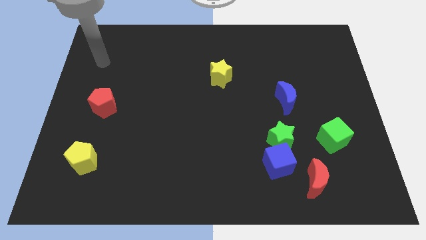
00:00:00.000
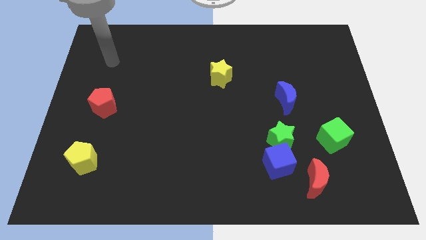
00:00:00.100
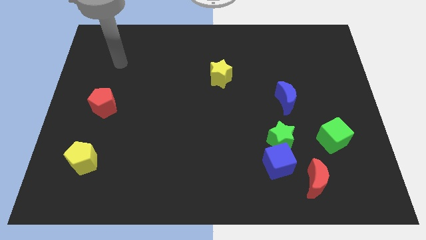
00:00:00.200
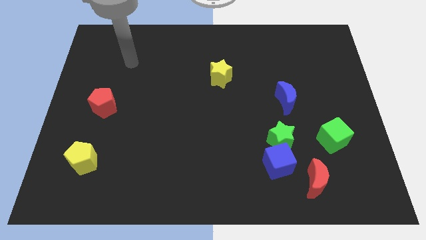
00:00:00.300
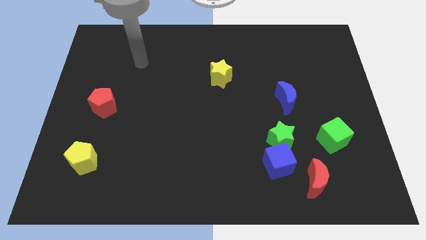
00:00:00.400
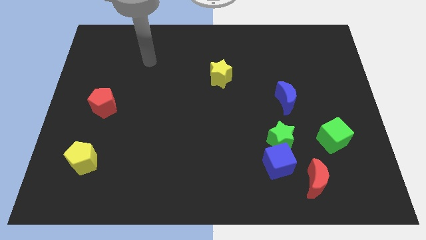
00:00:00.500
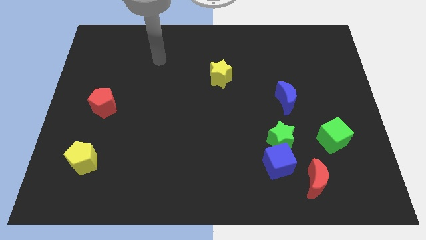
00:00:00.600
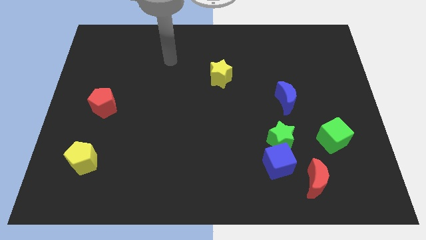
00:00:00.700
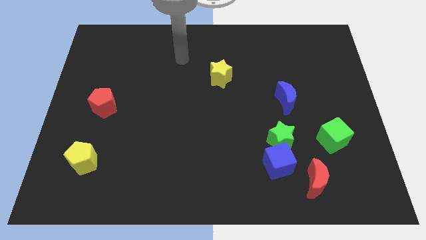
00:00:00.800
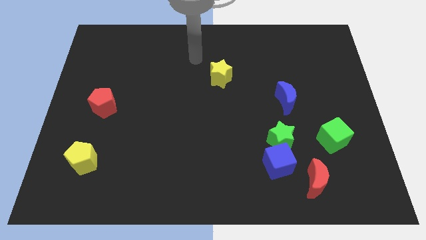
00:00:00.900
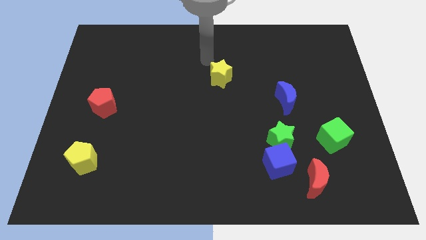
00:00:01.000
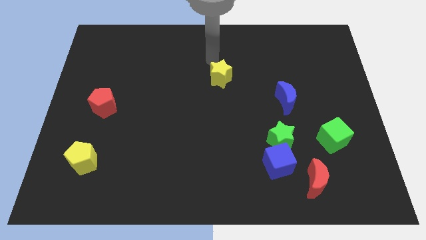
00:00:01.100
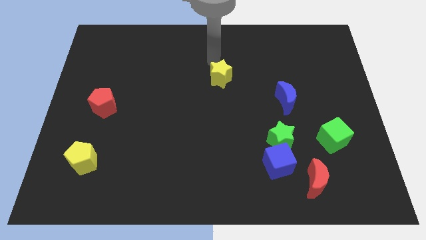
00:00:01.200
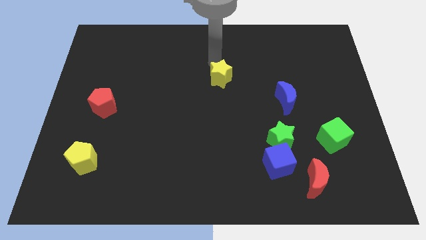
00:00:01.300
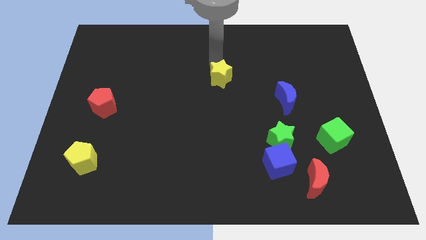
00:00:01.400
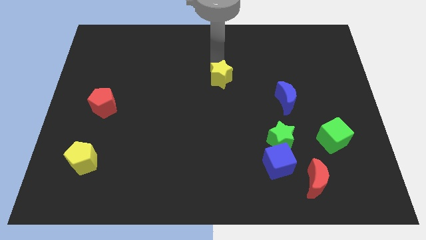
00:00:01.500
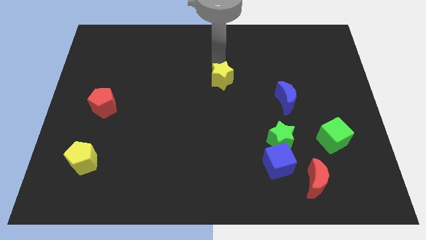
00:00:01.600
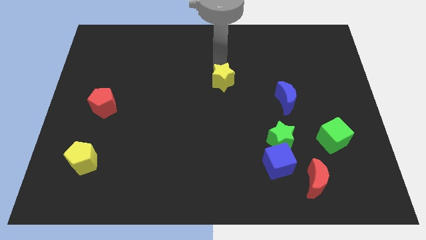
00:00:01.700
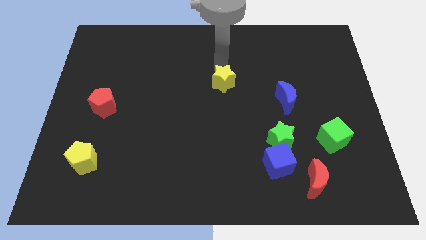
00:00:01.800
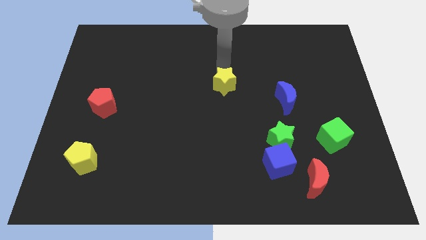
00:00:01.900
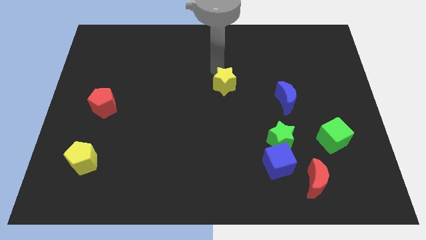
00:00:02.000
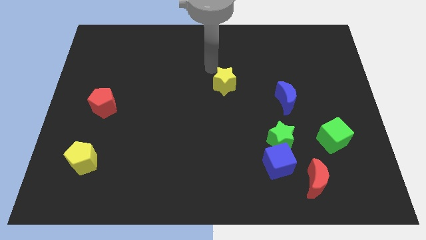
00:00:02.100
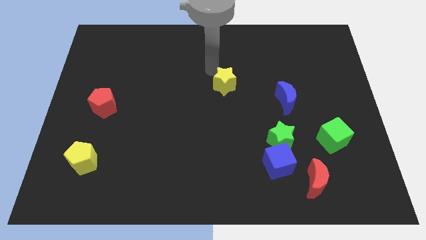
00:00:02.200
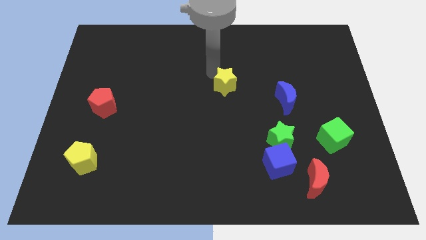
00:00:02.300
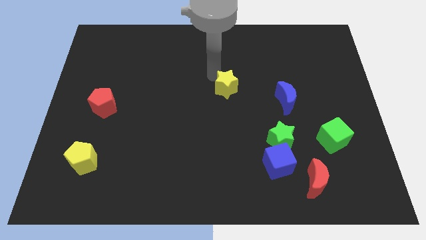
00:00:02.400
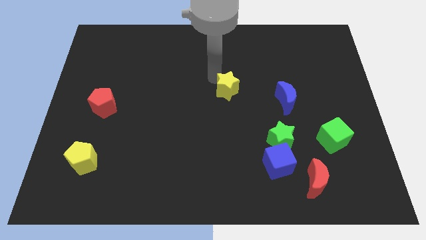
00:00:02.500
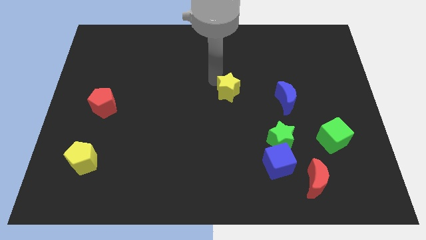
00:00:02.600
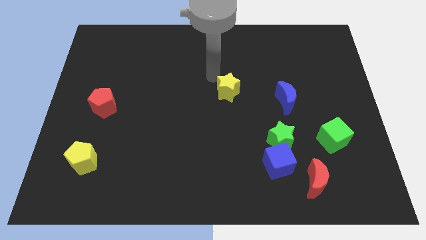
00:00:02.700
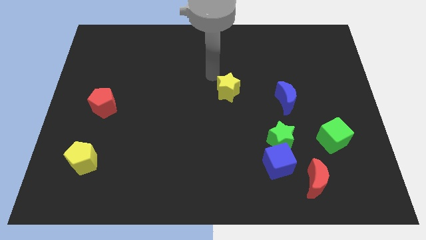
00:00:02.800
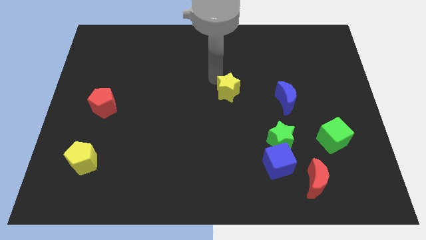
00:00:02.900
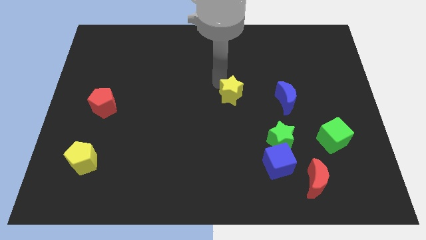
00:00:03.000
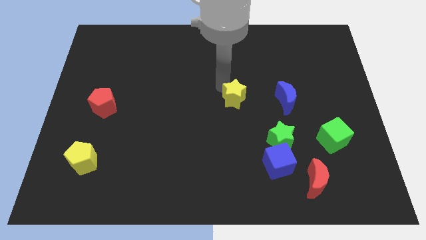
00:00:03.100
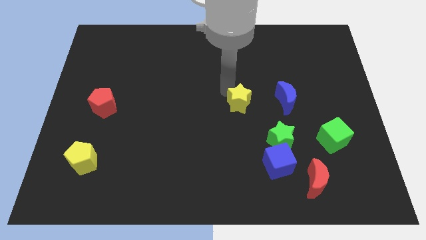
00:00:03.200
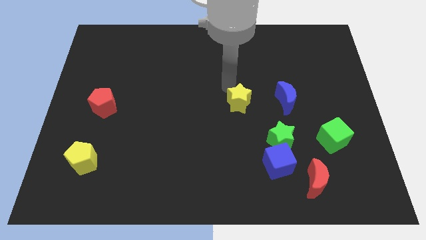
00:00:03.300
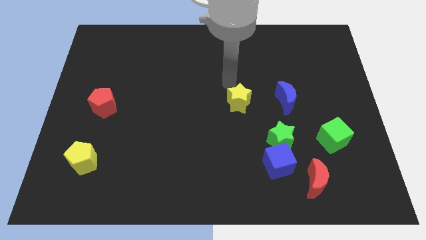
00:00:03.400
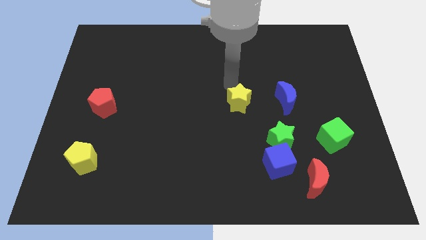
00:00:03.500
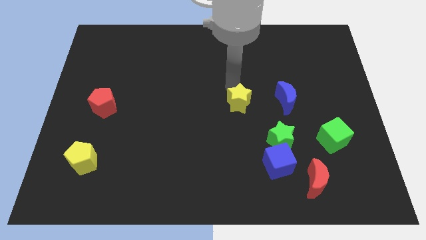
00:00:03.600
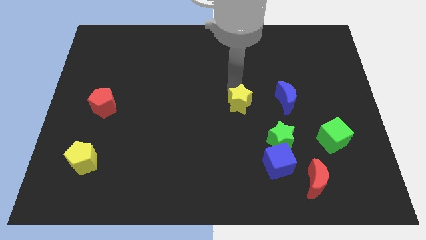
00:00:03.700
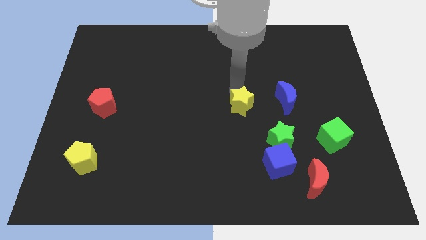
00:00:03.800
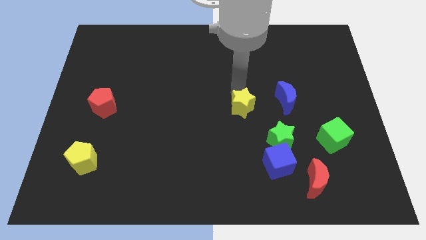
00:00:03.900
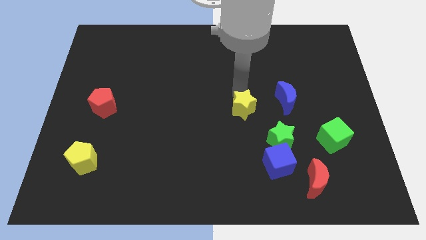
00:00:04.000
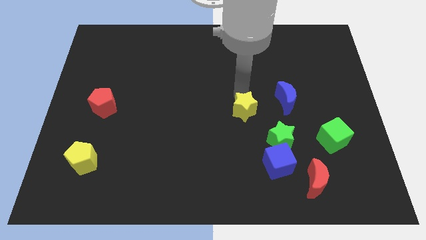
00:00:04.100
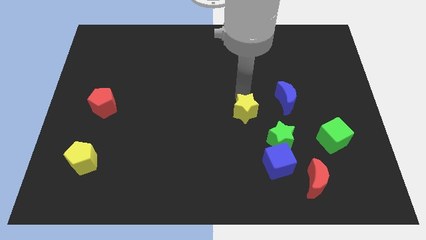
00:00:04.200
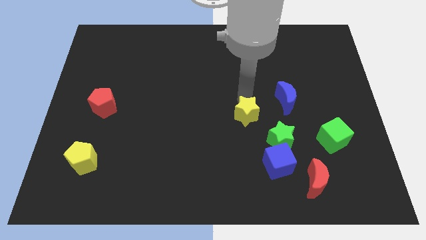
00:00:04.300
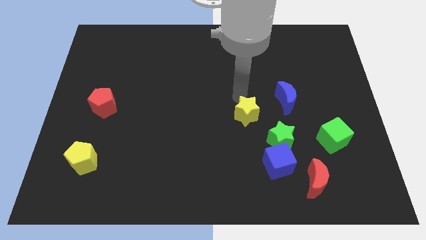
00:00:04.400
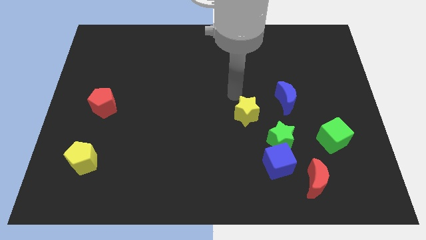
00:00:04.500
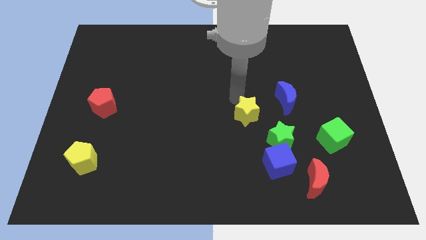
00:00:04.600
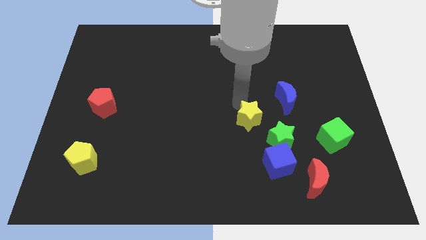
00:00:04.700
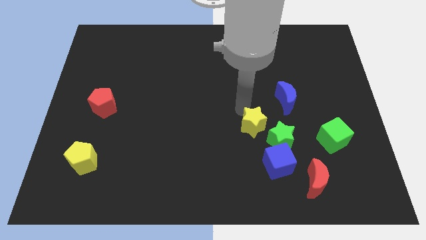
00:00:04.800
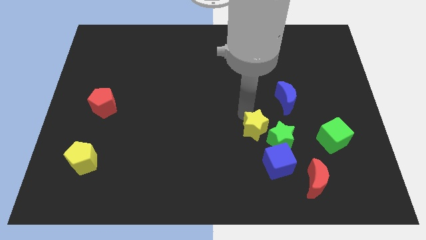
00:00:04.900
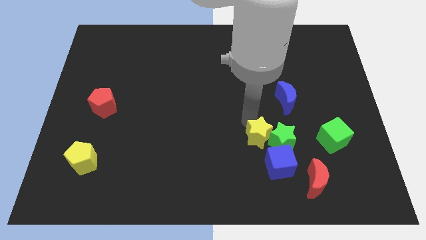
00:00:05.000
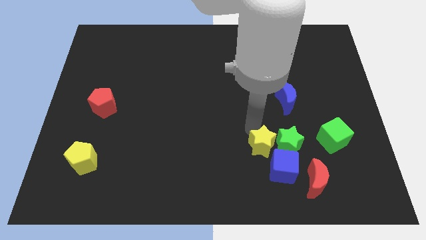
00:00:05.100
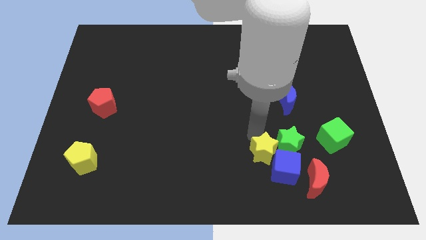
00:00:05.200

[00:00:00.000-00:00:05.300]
put the yellow star to the blue cube
